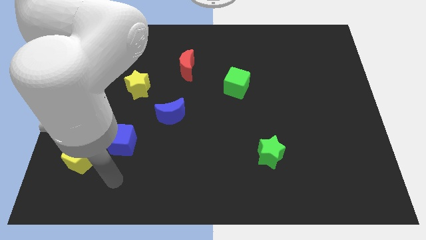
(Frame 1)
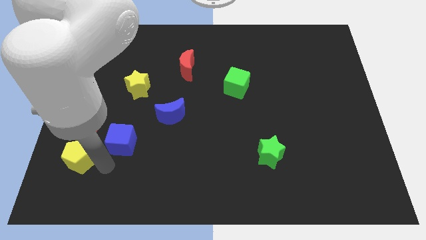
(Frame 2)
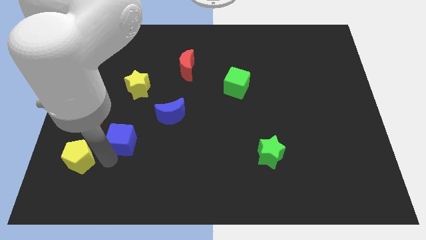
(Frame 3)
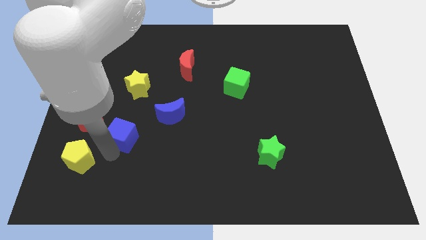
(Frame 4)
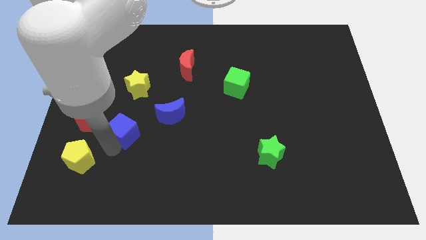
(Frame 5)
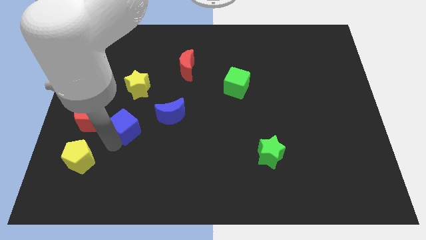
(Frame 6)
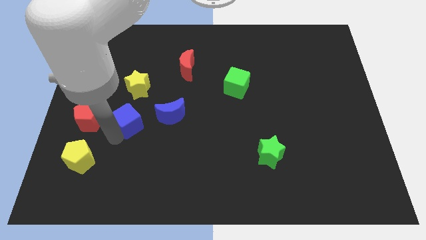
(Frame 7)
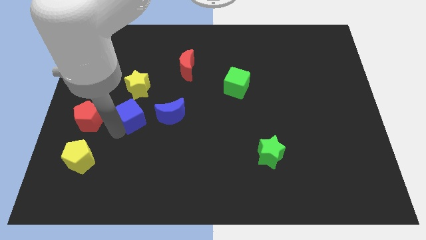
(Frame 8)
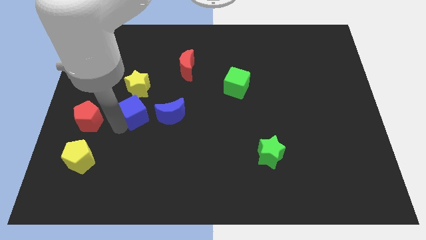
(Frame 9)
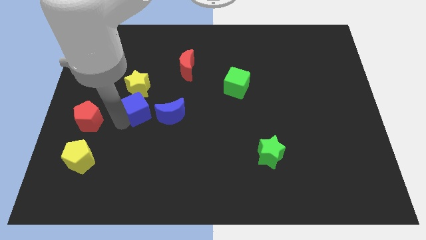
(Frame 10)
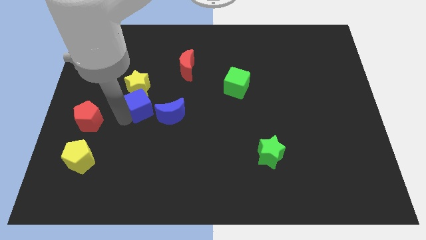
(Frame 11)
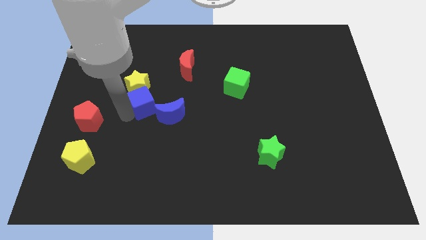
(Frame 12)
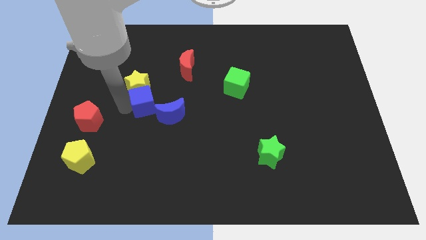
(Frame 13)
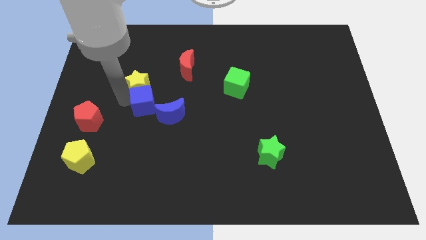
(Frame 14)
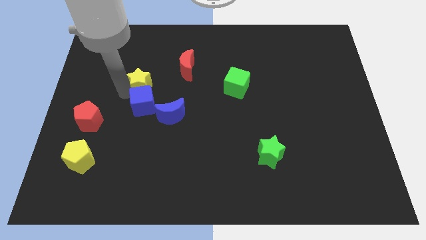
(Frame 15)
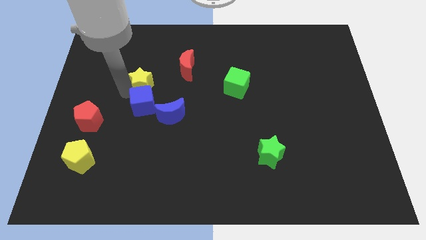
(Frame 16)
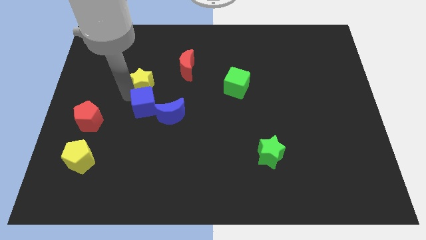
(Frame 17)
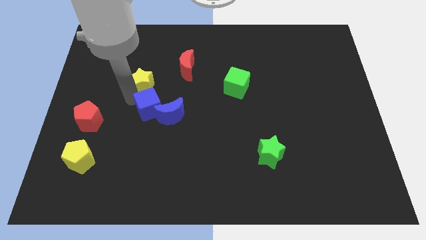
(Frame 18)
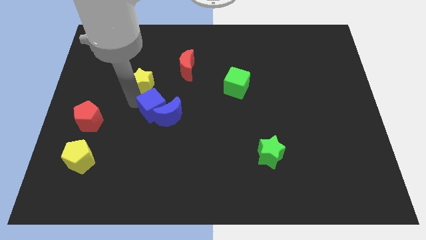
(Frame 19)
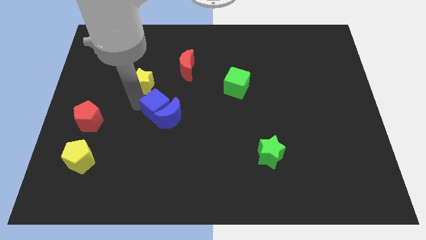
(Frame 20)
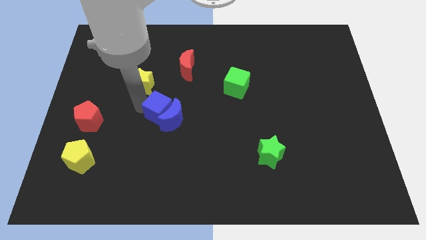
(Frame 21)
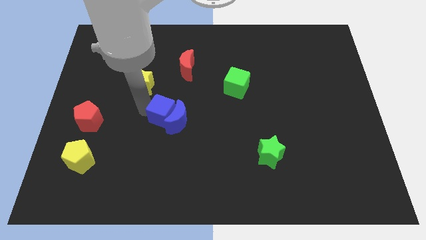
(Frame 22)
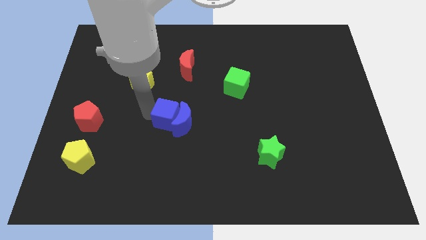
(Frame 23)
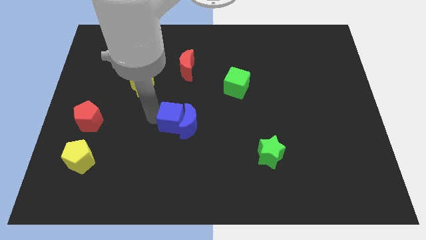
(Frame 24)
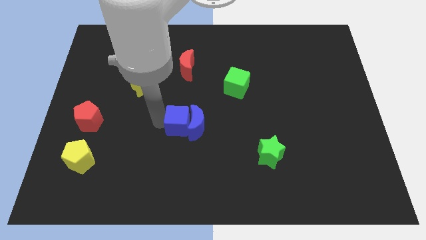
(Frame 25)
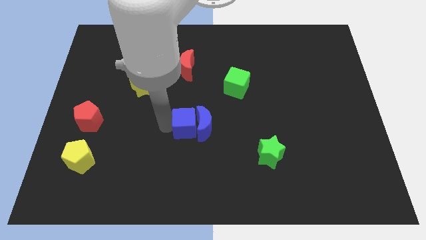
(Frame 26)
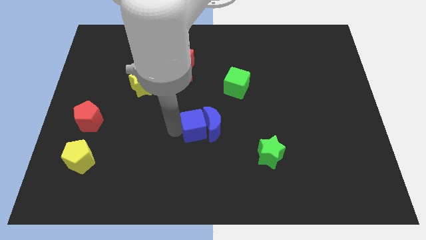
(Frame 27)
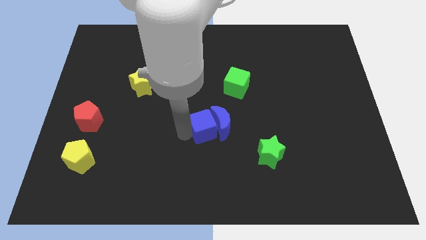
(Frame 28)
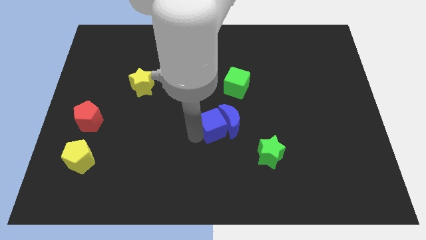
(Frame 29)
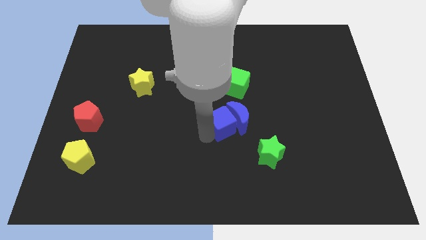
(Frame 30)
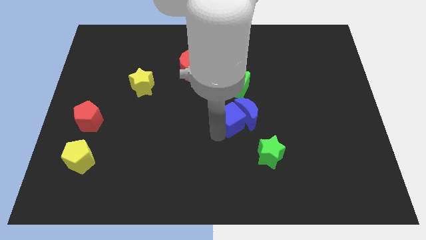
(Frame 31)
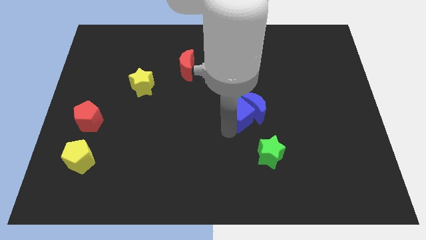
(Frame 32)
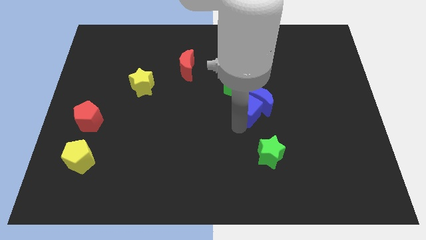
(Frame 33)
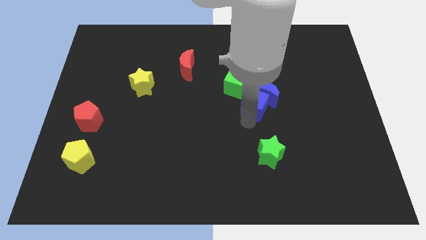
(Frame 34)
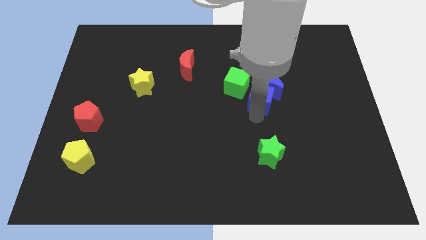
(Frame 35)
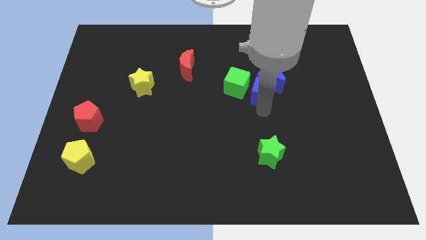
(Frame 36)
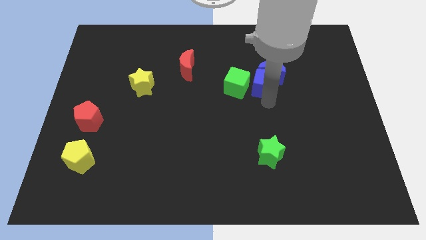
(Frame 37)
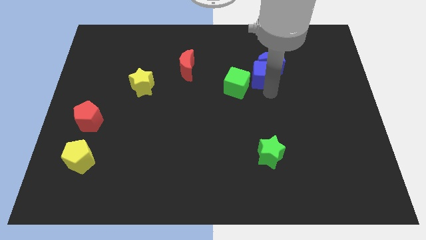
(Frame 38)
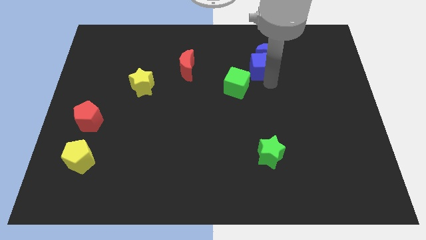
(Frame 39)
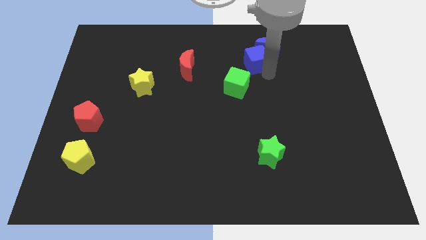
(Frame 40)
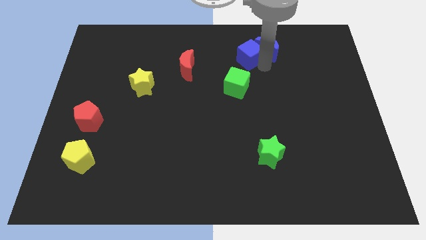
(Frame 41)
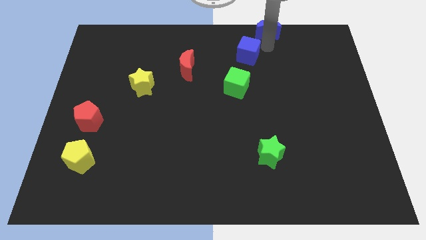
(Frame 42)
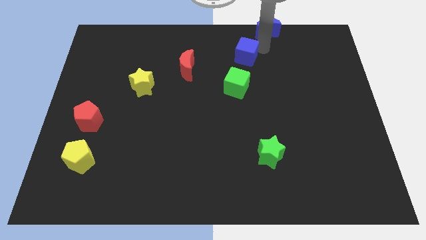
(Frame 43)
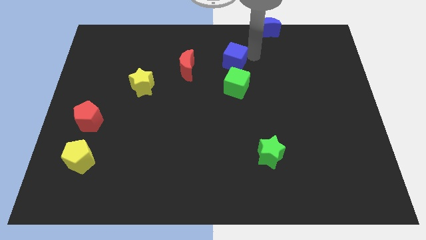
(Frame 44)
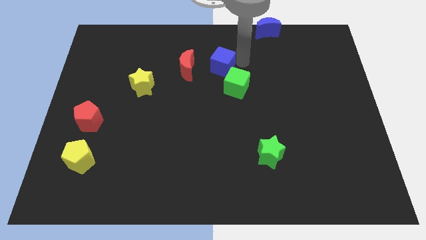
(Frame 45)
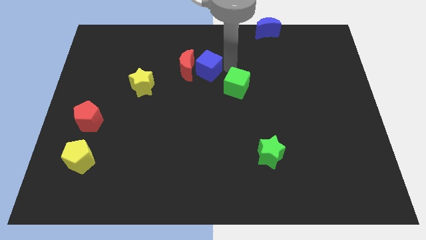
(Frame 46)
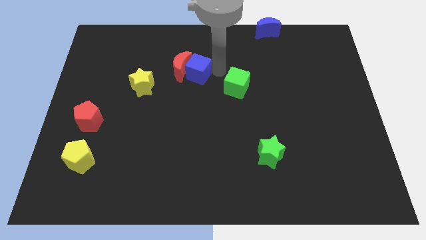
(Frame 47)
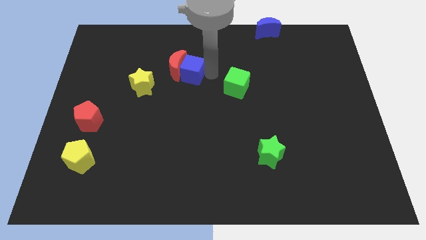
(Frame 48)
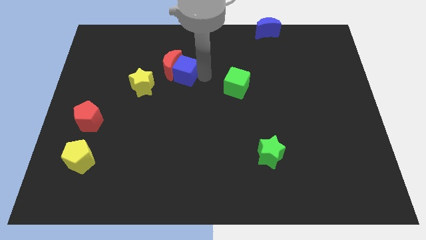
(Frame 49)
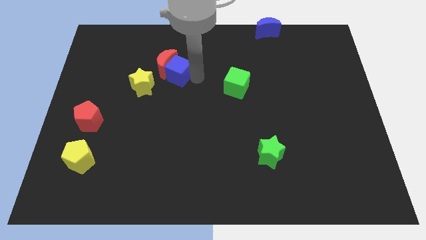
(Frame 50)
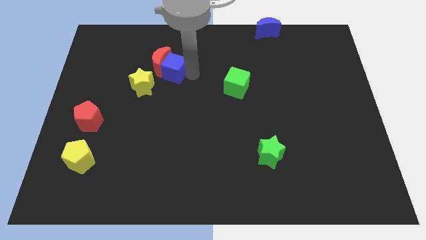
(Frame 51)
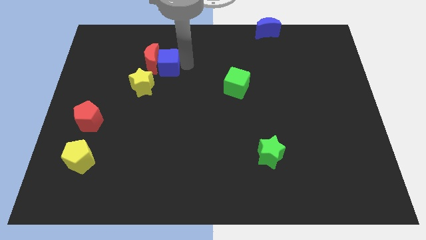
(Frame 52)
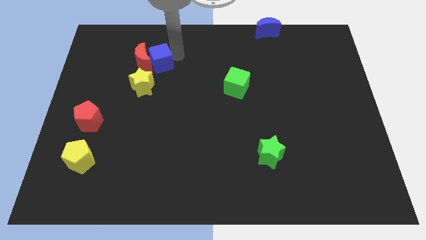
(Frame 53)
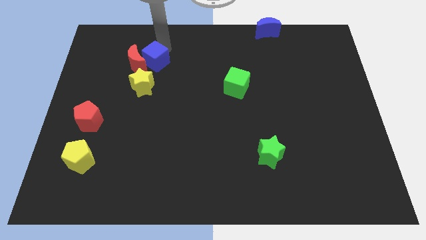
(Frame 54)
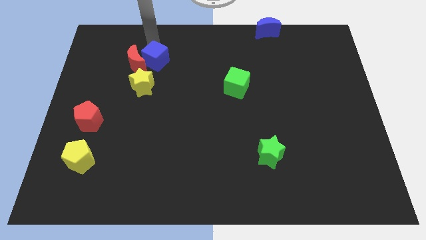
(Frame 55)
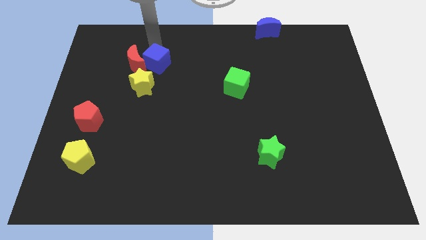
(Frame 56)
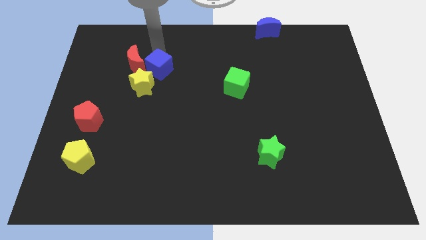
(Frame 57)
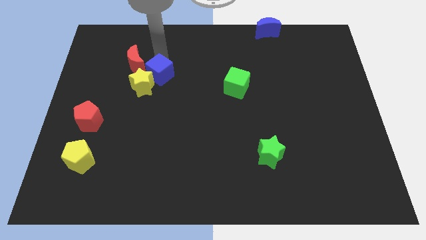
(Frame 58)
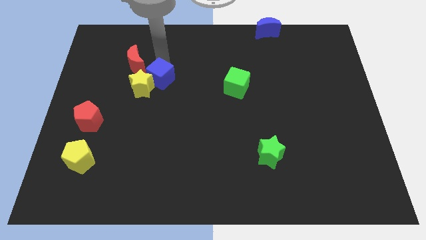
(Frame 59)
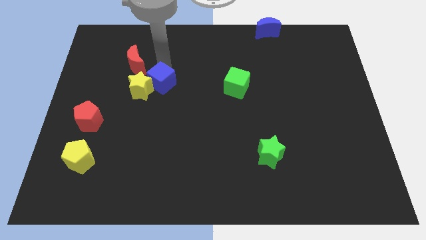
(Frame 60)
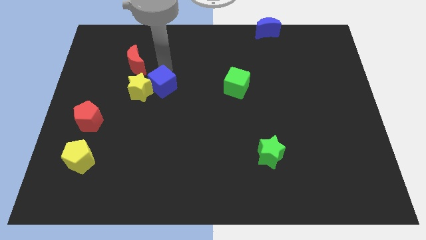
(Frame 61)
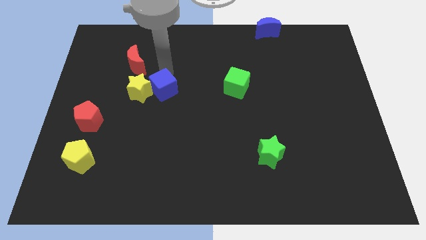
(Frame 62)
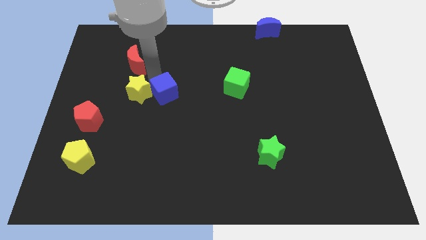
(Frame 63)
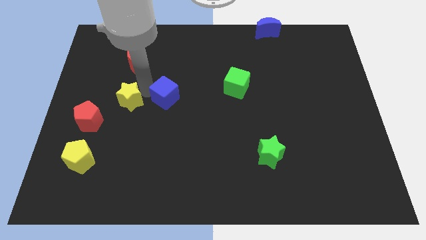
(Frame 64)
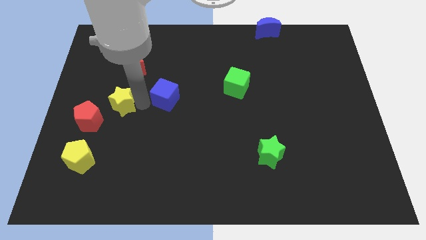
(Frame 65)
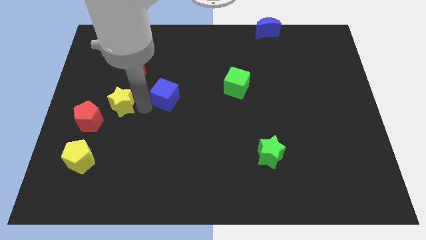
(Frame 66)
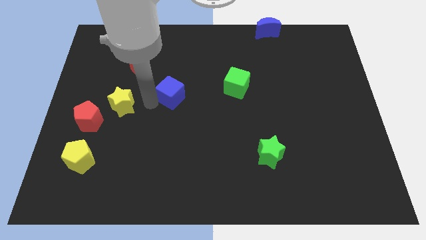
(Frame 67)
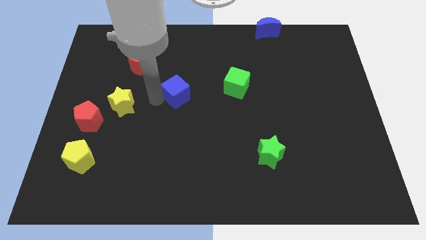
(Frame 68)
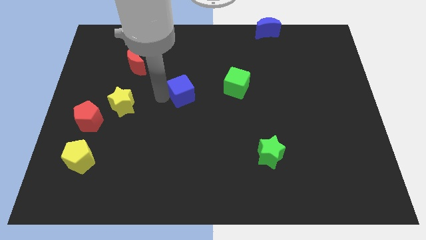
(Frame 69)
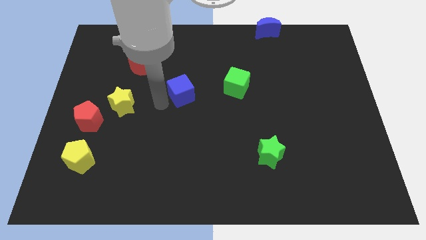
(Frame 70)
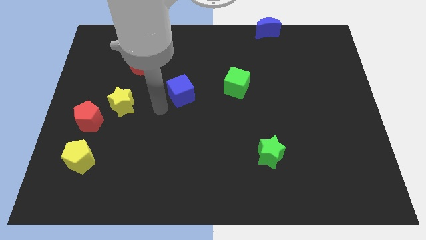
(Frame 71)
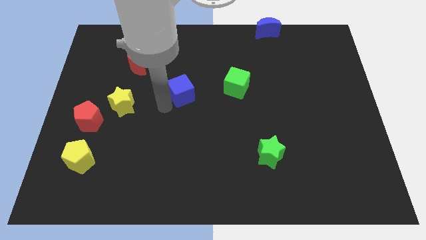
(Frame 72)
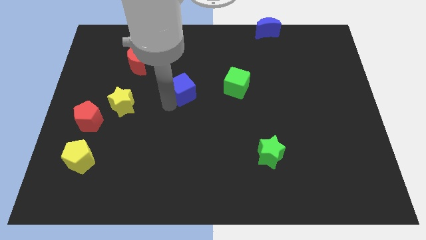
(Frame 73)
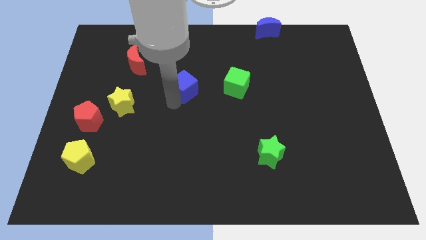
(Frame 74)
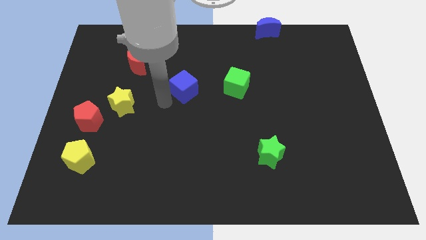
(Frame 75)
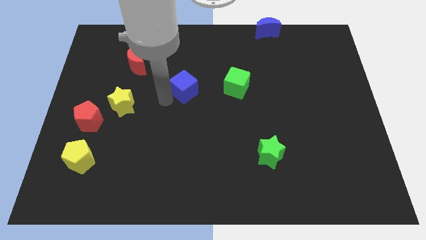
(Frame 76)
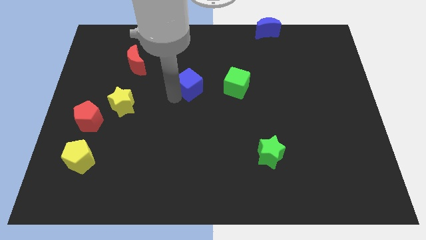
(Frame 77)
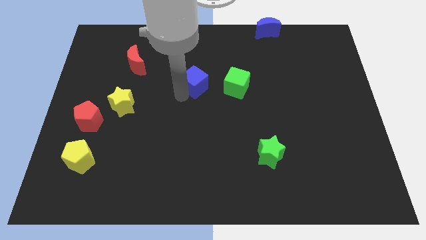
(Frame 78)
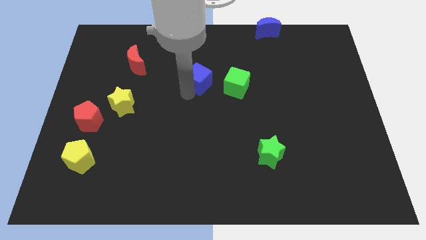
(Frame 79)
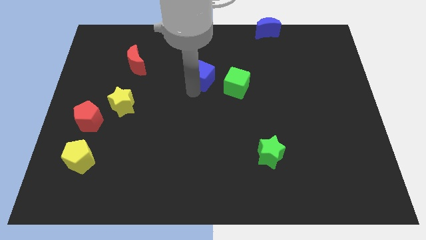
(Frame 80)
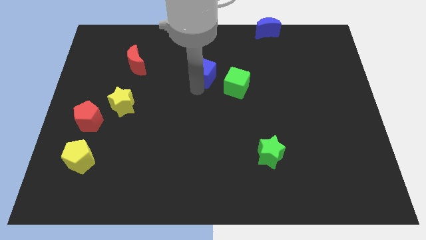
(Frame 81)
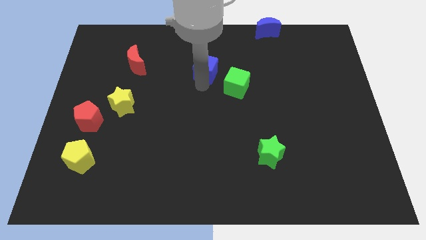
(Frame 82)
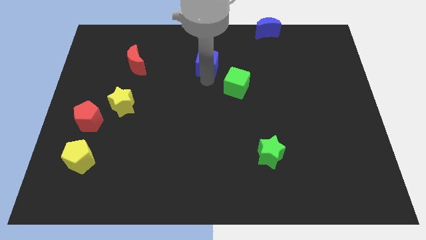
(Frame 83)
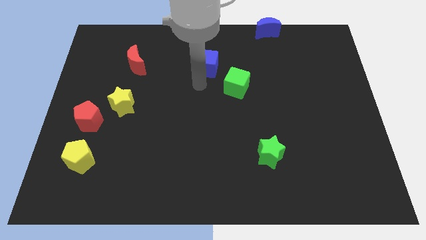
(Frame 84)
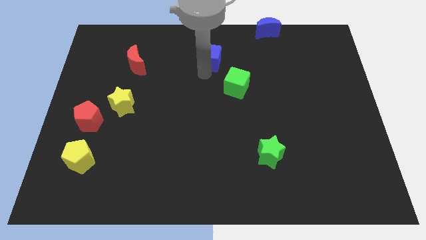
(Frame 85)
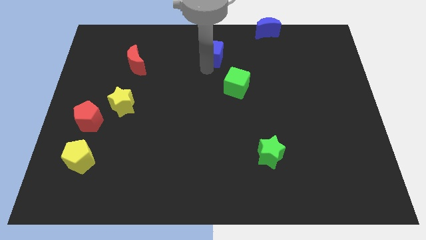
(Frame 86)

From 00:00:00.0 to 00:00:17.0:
push the blue cube to the towards your base
